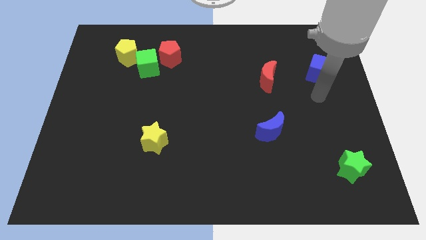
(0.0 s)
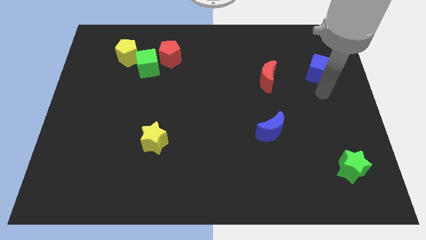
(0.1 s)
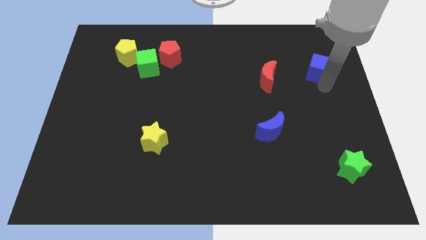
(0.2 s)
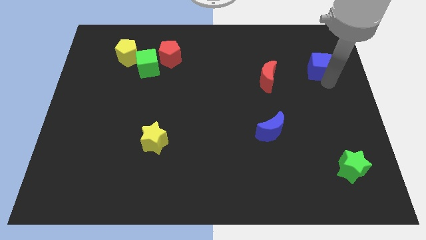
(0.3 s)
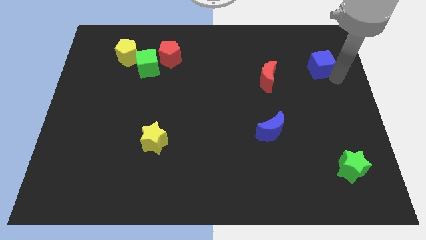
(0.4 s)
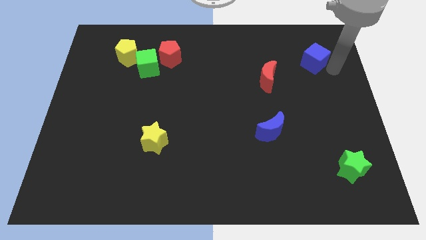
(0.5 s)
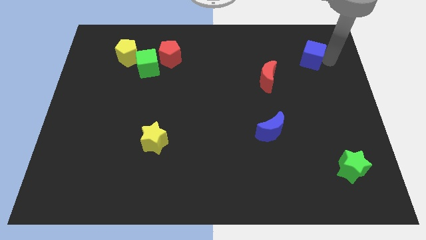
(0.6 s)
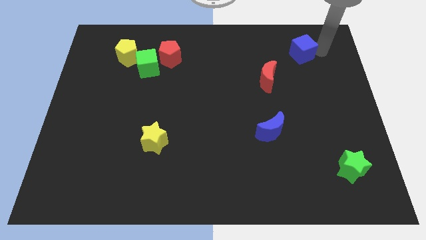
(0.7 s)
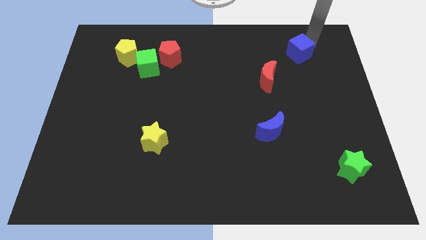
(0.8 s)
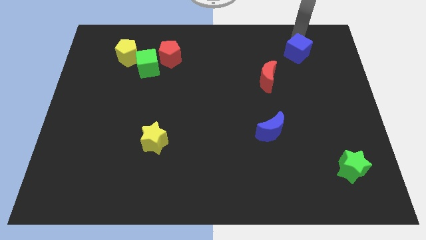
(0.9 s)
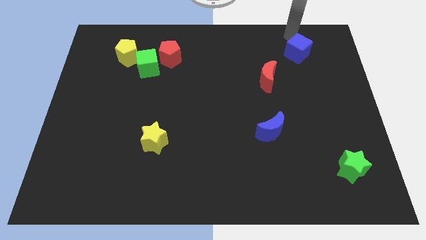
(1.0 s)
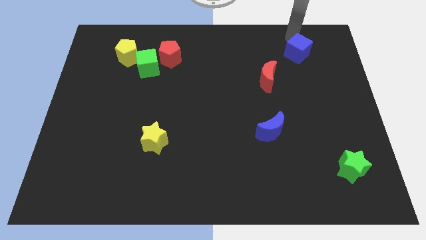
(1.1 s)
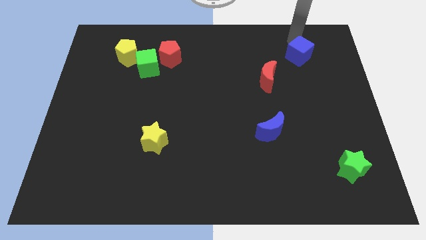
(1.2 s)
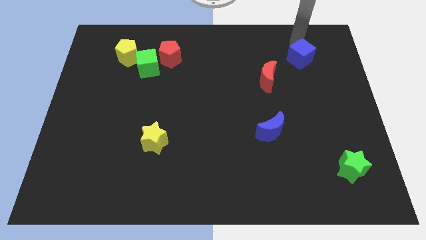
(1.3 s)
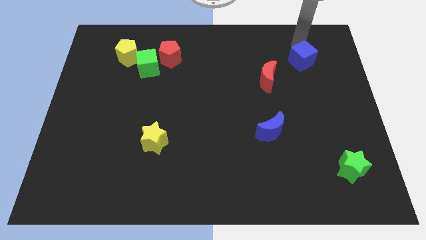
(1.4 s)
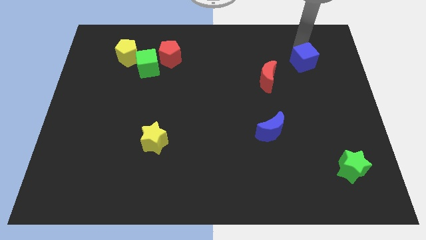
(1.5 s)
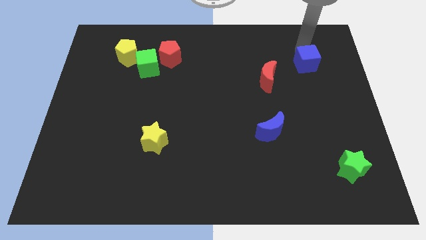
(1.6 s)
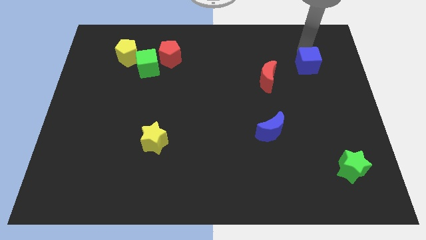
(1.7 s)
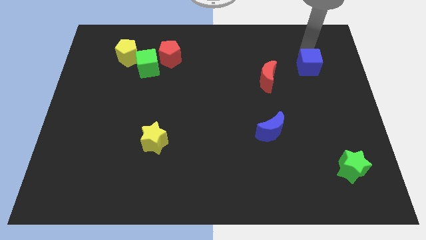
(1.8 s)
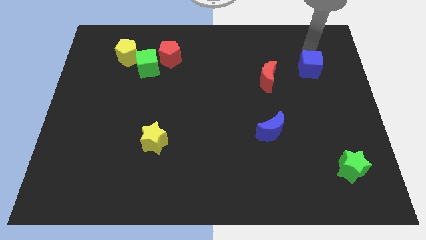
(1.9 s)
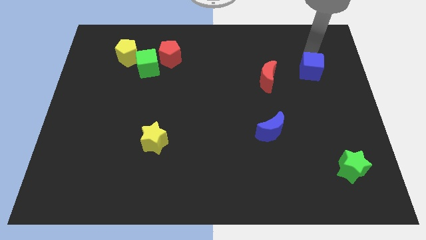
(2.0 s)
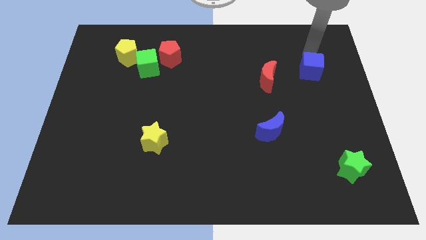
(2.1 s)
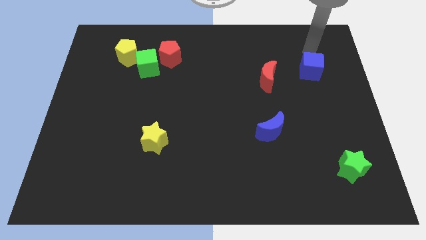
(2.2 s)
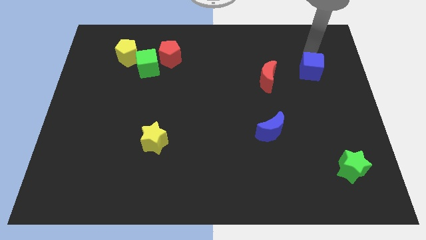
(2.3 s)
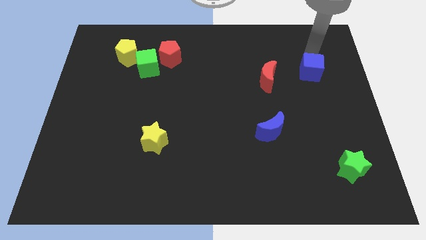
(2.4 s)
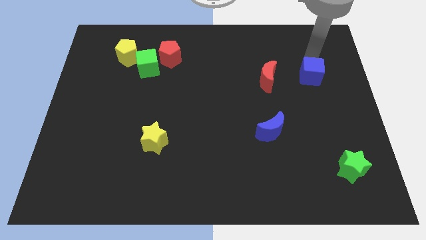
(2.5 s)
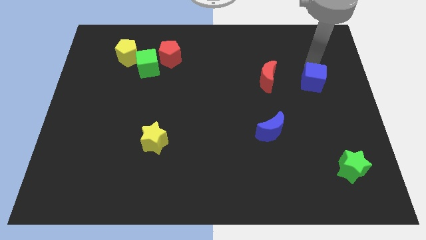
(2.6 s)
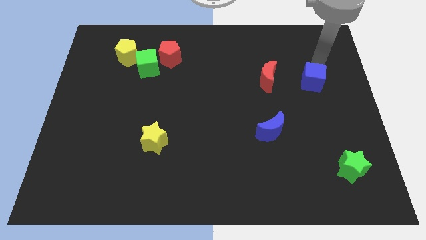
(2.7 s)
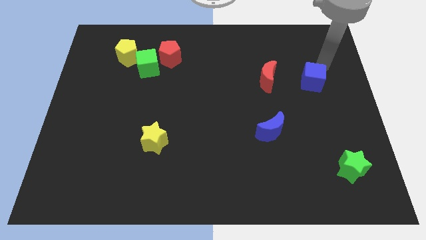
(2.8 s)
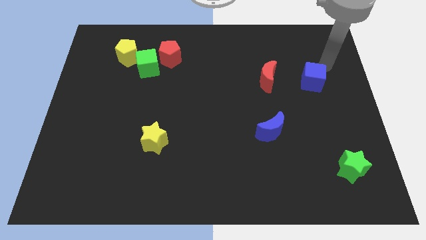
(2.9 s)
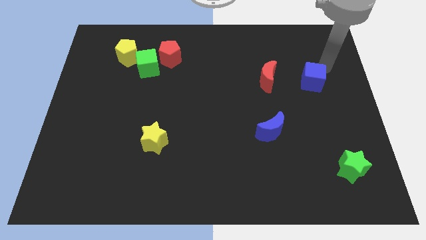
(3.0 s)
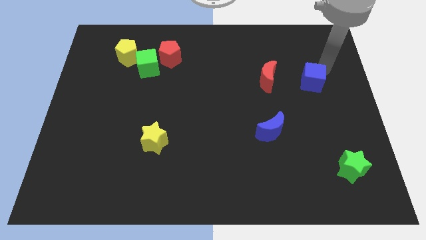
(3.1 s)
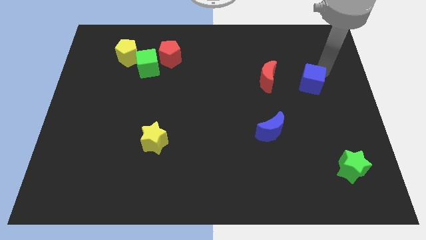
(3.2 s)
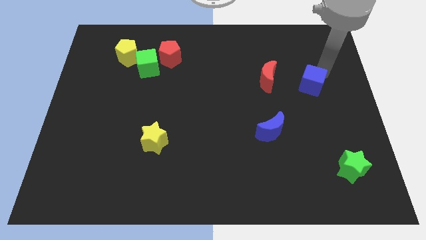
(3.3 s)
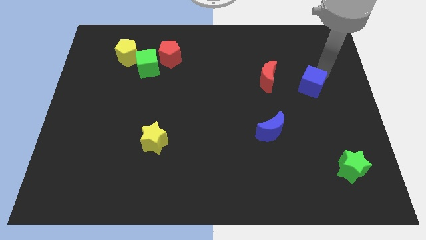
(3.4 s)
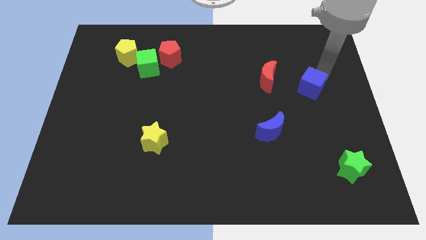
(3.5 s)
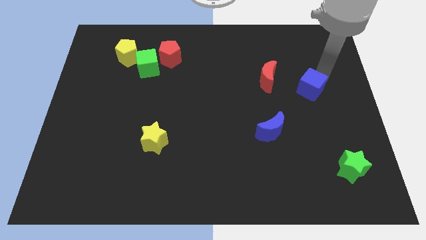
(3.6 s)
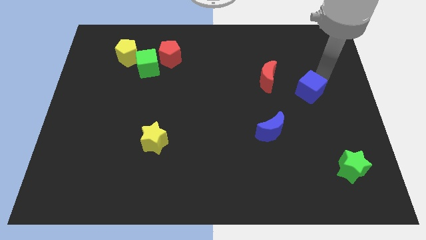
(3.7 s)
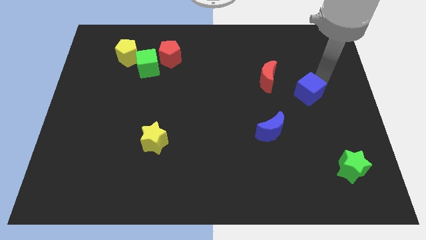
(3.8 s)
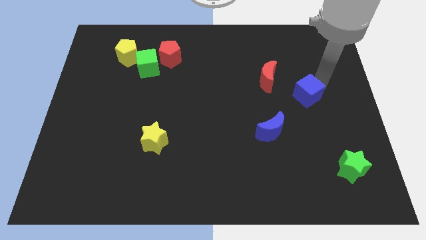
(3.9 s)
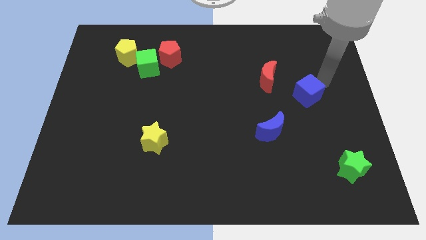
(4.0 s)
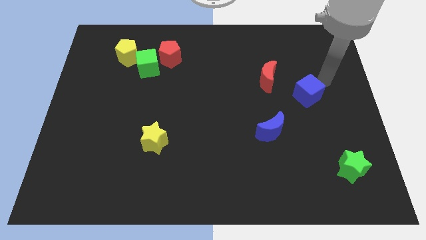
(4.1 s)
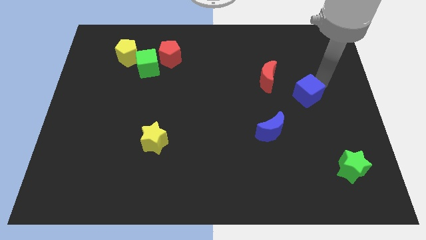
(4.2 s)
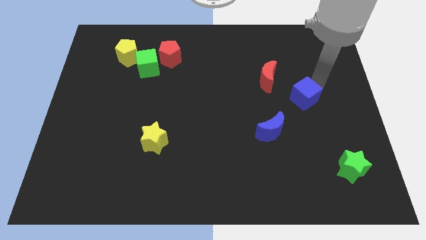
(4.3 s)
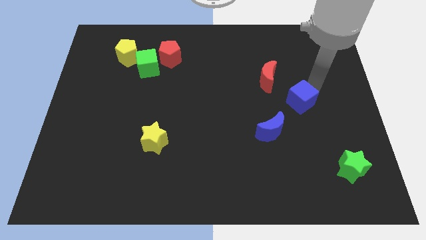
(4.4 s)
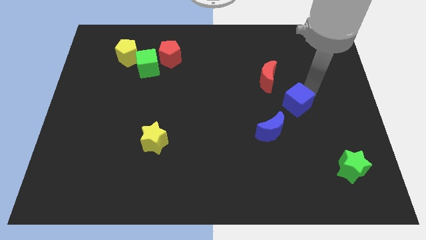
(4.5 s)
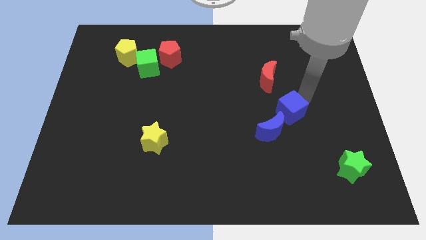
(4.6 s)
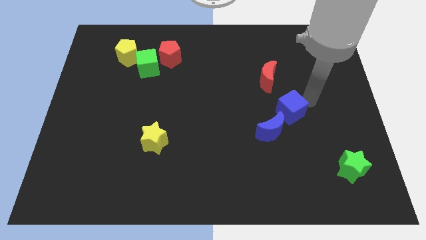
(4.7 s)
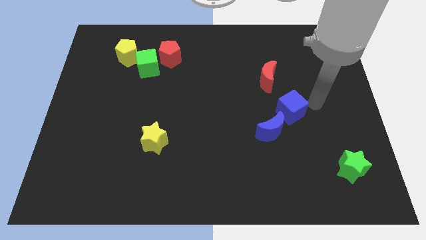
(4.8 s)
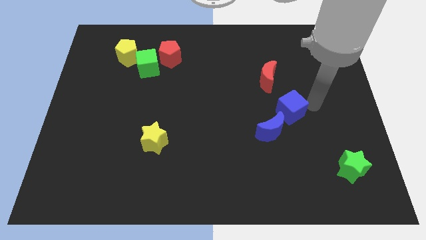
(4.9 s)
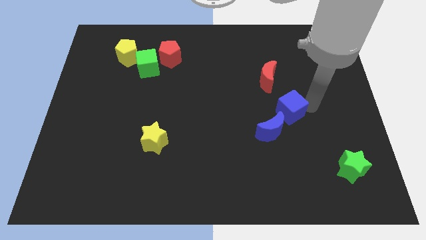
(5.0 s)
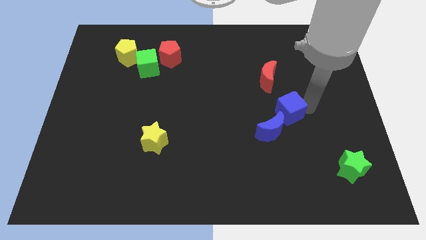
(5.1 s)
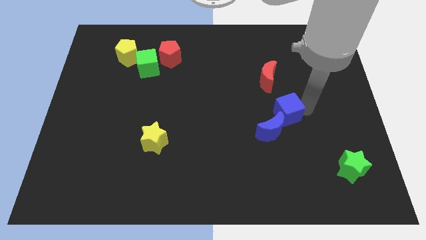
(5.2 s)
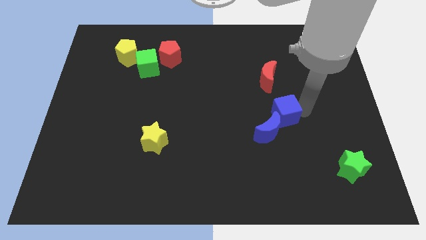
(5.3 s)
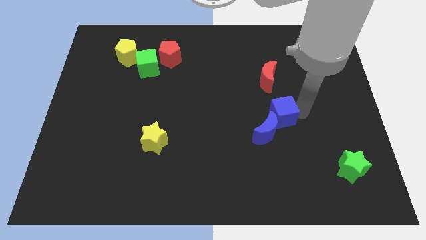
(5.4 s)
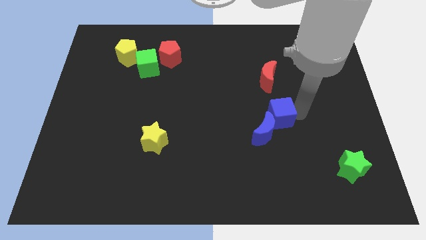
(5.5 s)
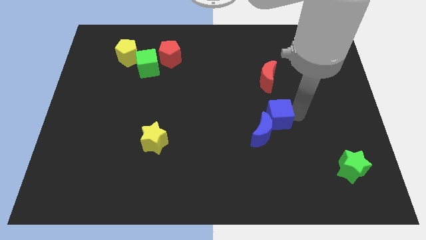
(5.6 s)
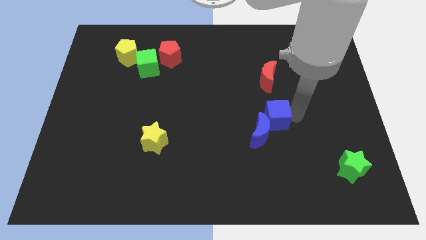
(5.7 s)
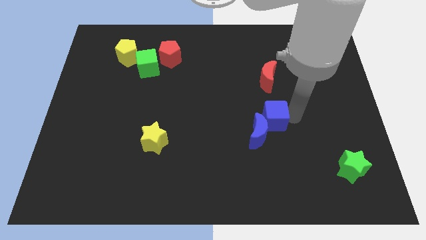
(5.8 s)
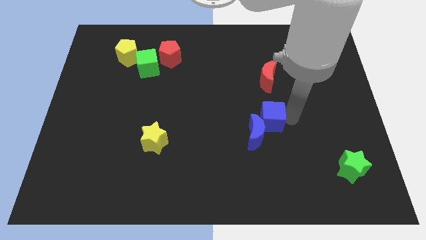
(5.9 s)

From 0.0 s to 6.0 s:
move the blue cube diagonally downwards and to the left

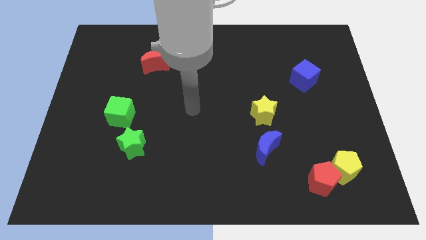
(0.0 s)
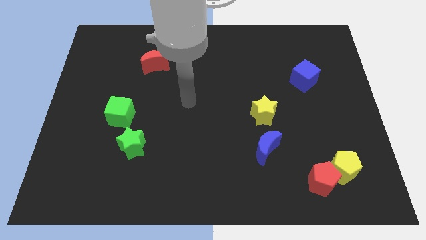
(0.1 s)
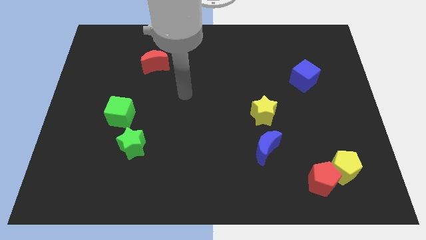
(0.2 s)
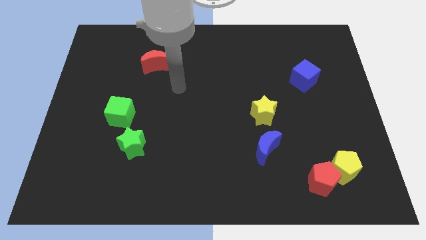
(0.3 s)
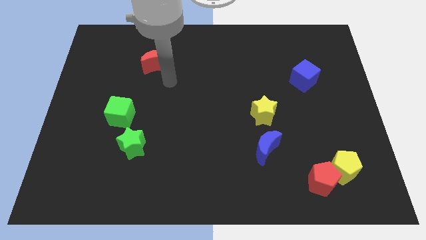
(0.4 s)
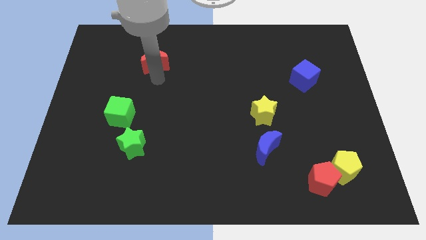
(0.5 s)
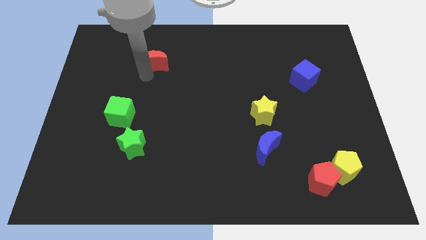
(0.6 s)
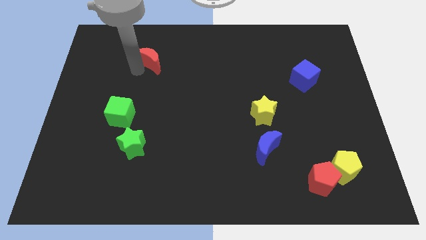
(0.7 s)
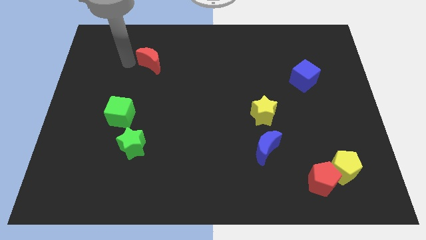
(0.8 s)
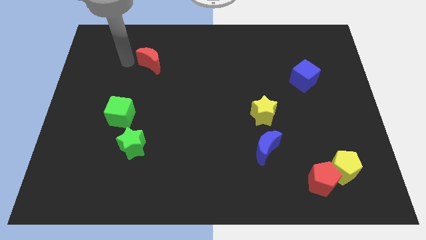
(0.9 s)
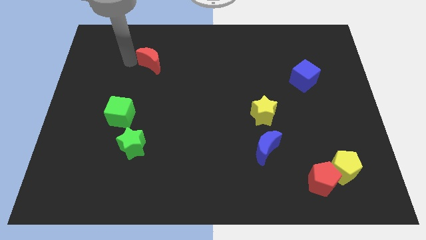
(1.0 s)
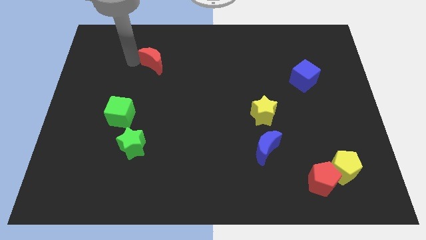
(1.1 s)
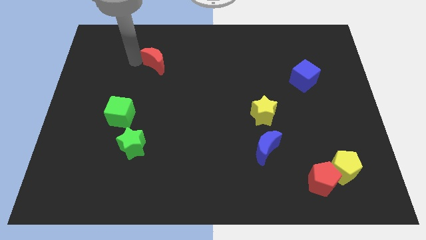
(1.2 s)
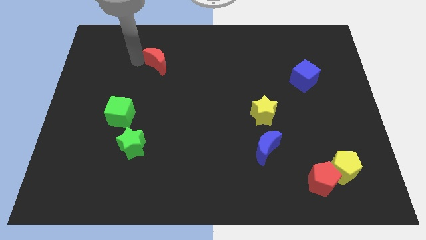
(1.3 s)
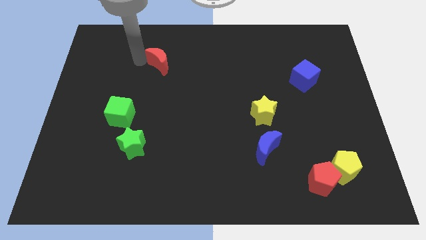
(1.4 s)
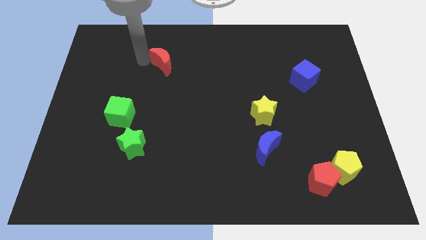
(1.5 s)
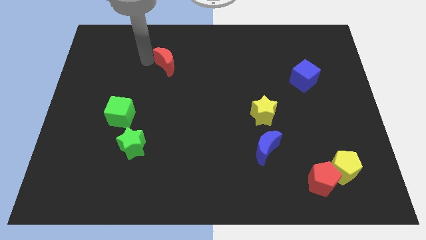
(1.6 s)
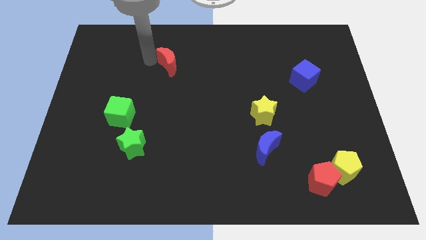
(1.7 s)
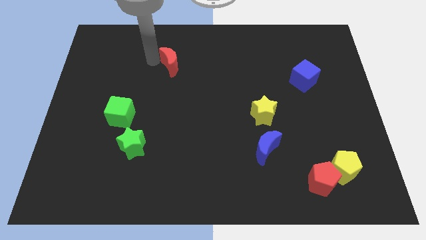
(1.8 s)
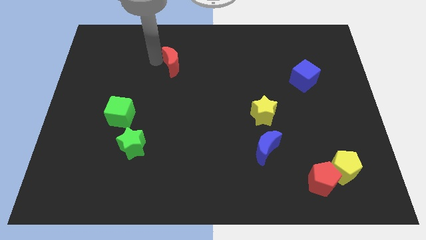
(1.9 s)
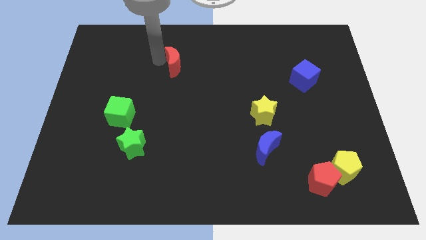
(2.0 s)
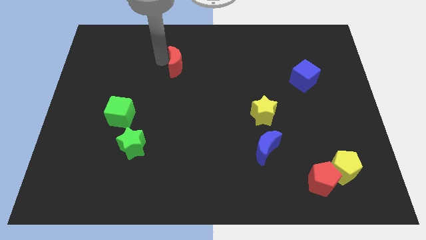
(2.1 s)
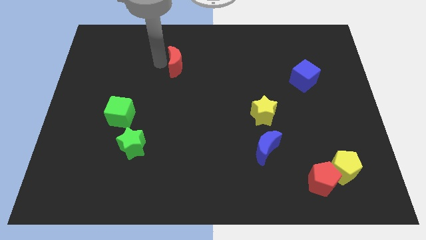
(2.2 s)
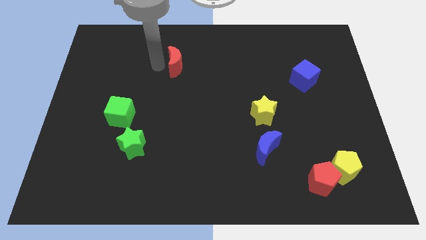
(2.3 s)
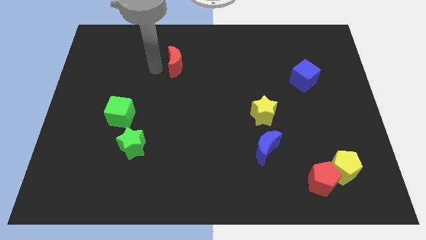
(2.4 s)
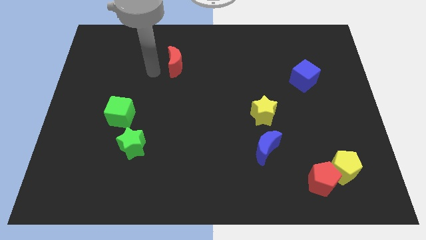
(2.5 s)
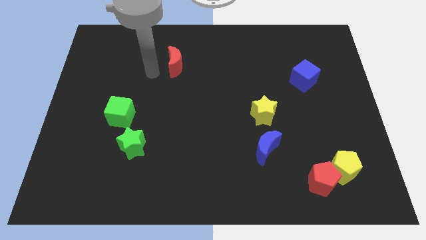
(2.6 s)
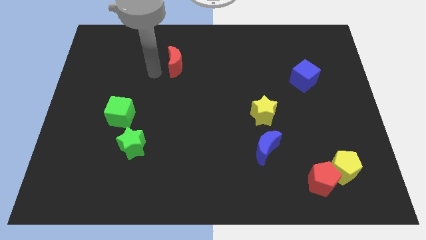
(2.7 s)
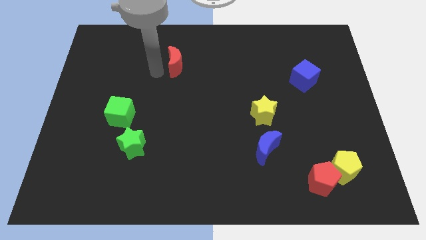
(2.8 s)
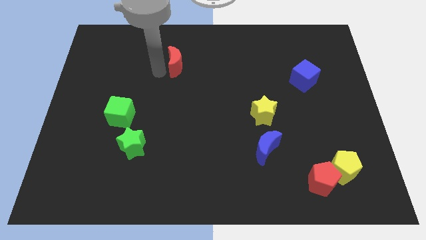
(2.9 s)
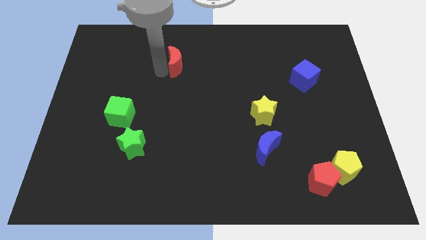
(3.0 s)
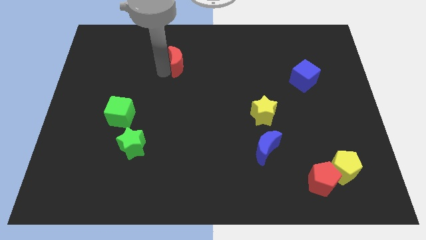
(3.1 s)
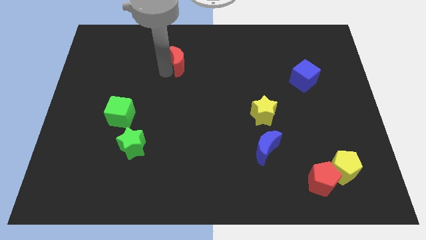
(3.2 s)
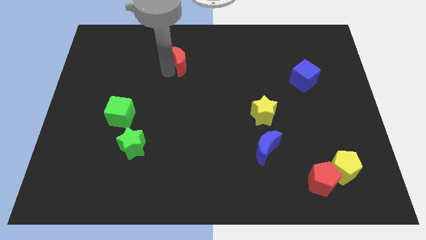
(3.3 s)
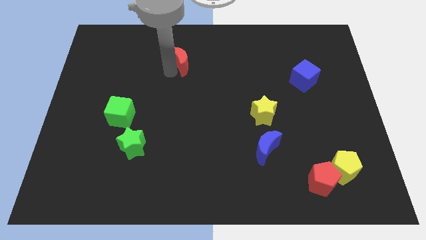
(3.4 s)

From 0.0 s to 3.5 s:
slightly move the red moon to the right
